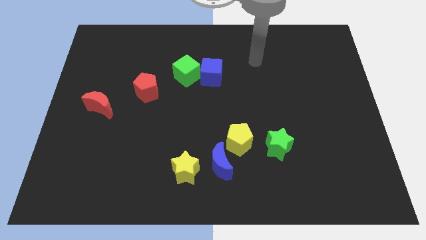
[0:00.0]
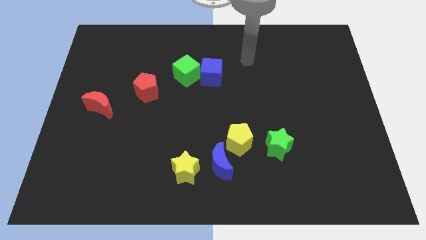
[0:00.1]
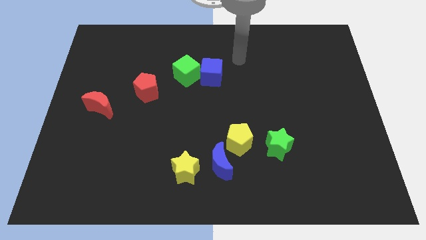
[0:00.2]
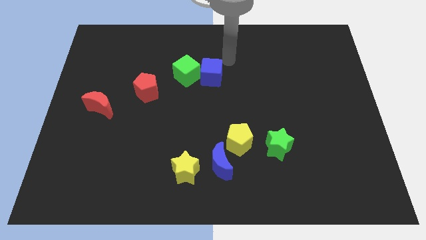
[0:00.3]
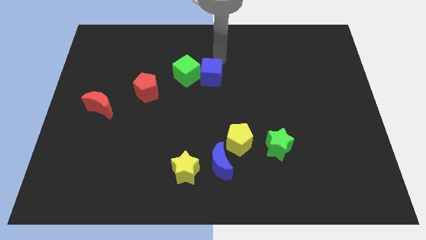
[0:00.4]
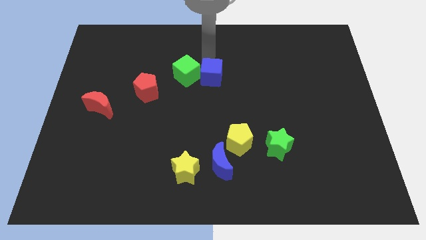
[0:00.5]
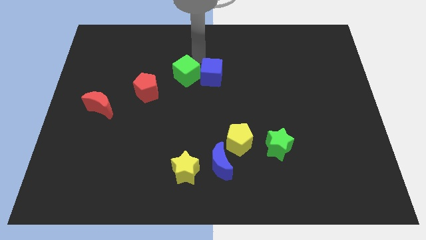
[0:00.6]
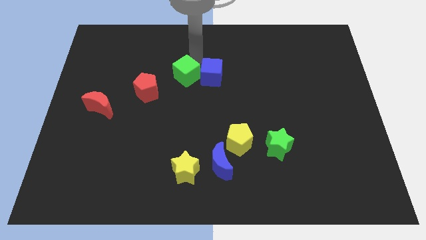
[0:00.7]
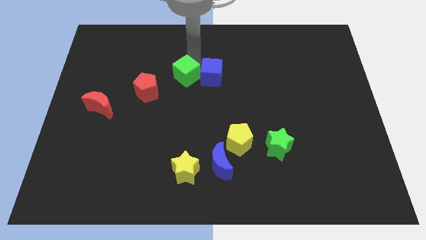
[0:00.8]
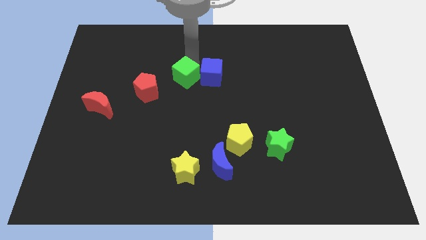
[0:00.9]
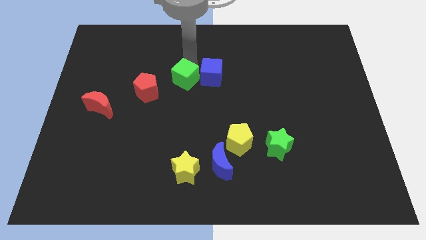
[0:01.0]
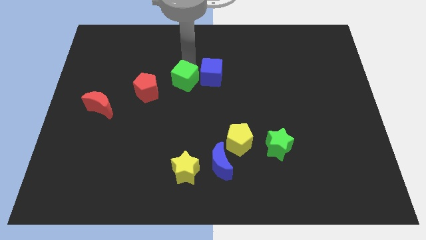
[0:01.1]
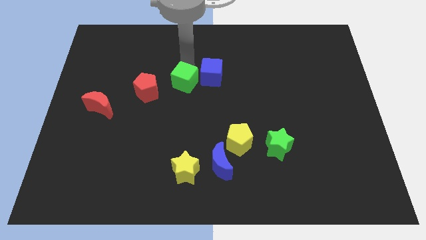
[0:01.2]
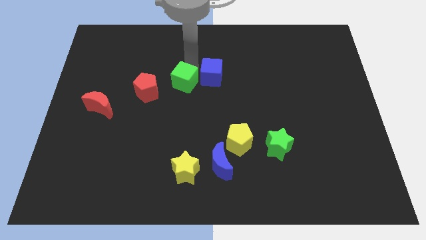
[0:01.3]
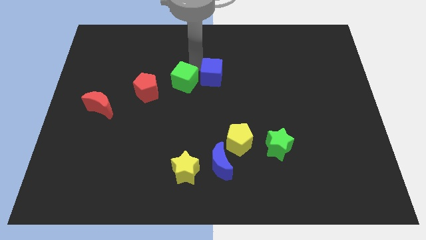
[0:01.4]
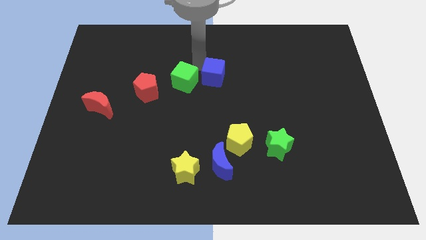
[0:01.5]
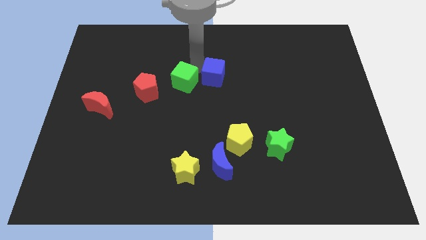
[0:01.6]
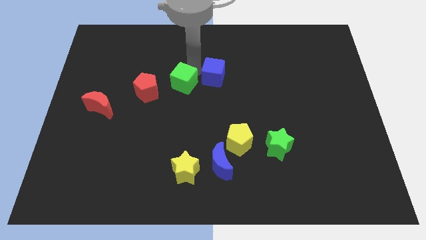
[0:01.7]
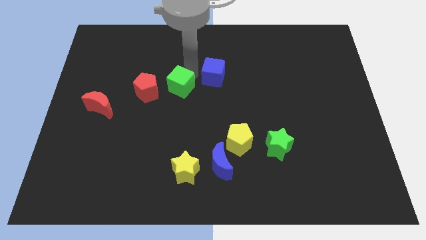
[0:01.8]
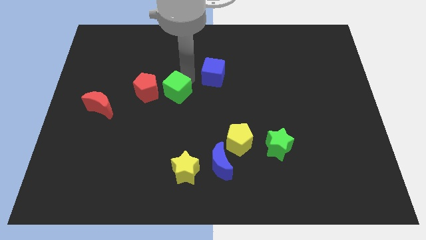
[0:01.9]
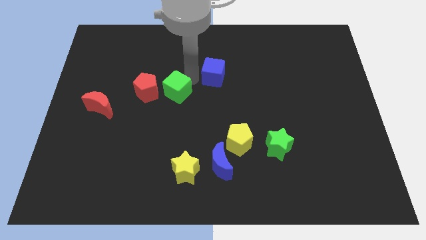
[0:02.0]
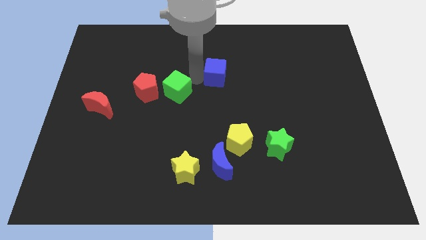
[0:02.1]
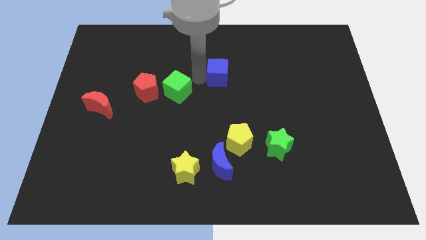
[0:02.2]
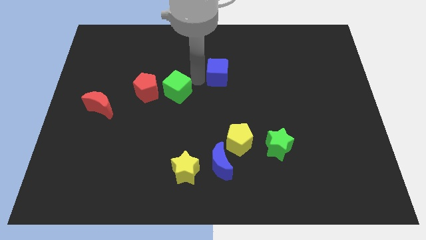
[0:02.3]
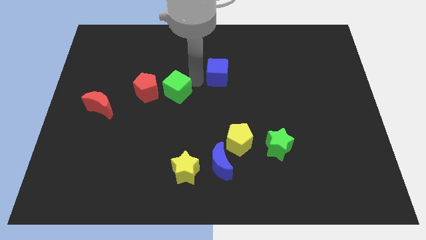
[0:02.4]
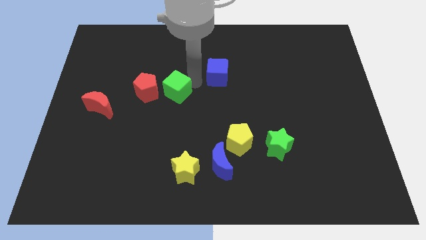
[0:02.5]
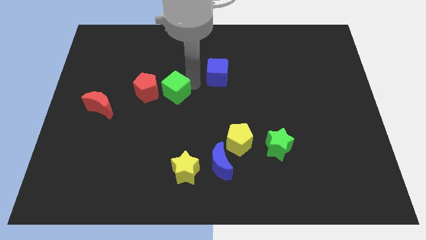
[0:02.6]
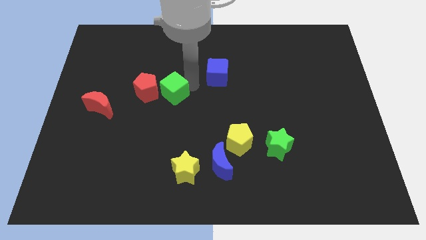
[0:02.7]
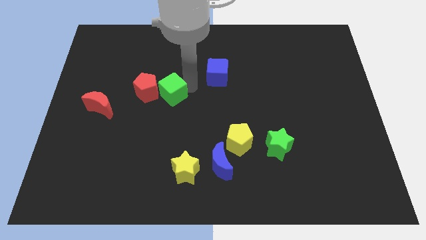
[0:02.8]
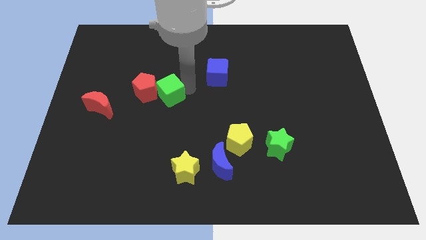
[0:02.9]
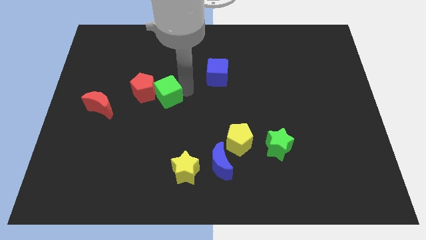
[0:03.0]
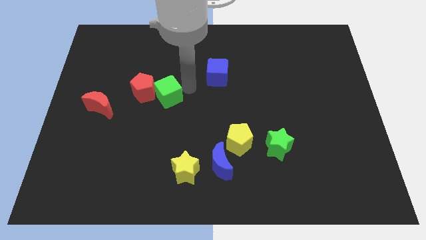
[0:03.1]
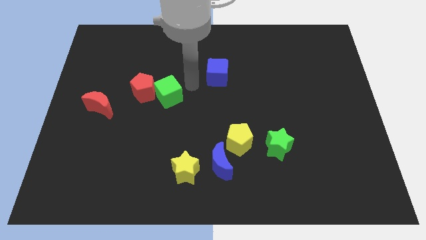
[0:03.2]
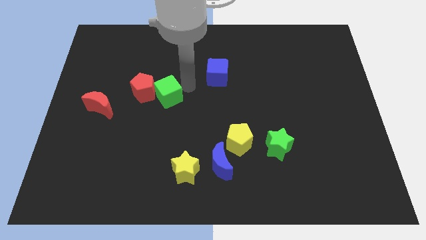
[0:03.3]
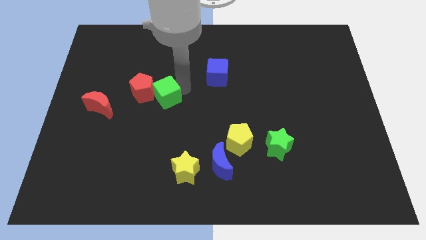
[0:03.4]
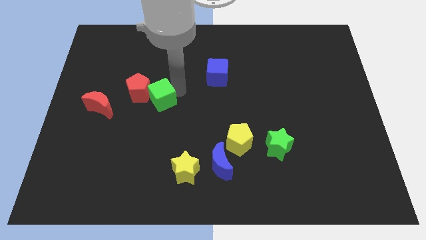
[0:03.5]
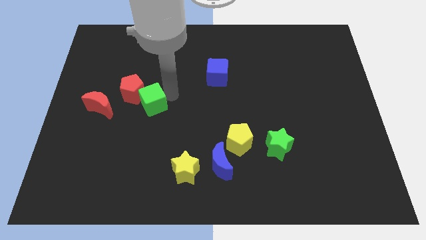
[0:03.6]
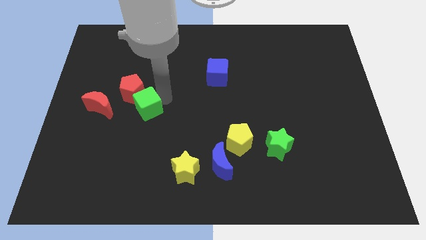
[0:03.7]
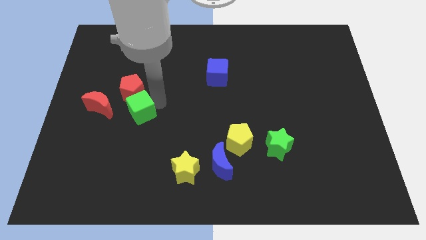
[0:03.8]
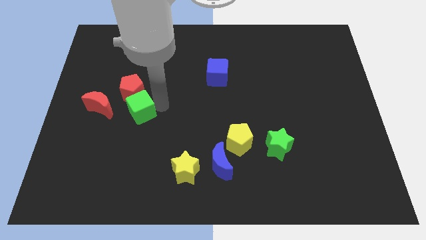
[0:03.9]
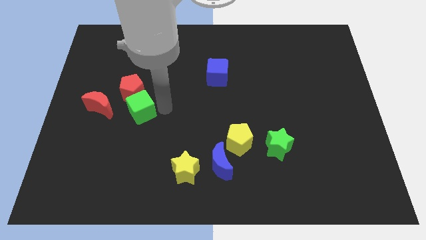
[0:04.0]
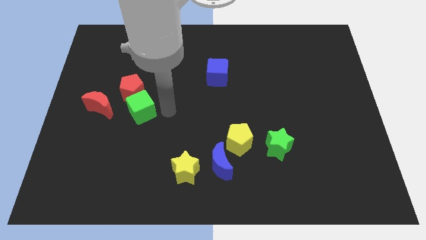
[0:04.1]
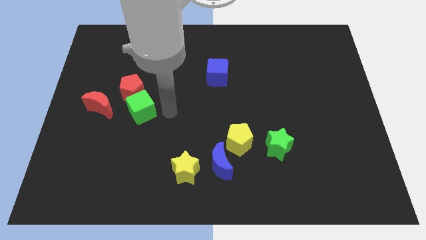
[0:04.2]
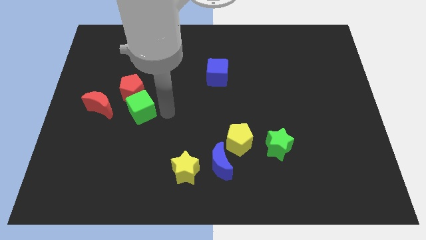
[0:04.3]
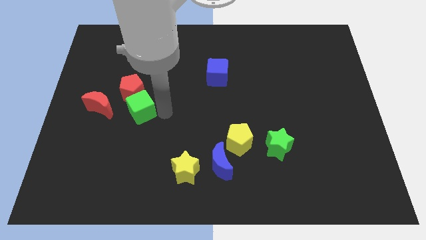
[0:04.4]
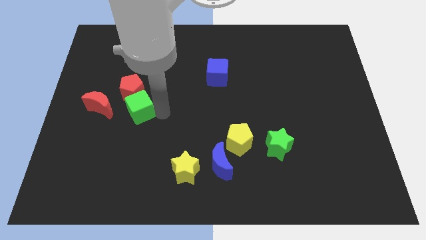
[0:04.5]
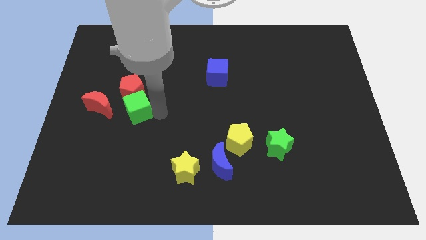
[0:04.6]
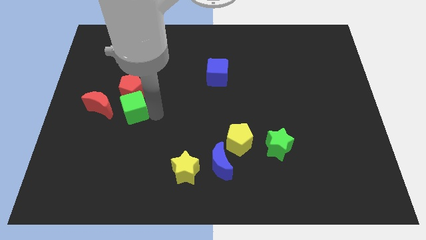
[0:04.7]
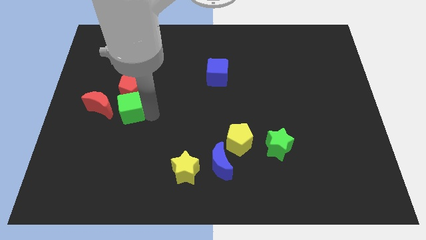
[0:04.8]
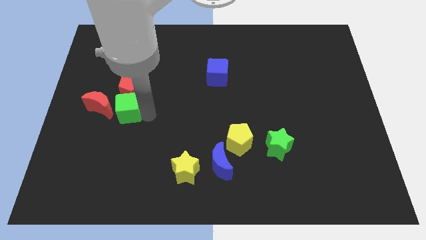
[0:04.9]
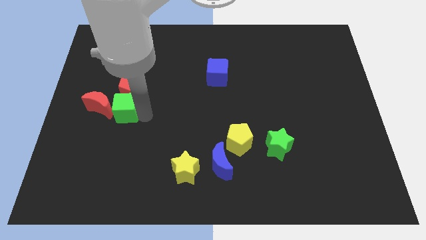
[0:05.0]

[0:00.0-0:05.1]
move the green cube to the red moon

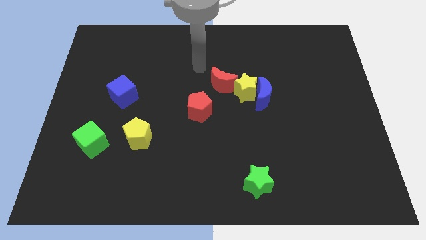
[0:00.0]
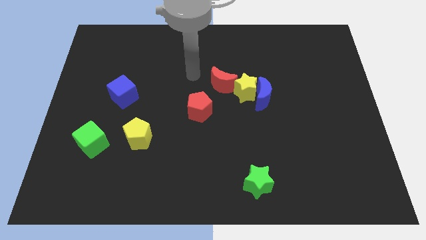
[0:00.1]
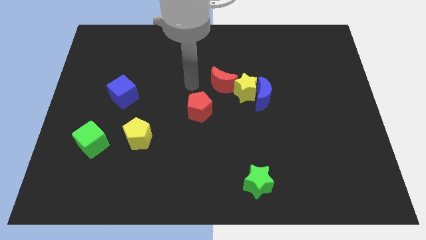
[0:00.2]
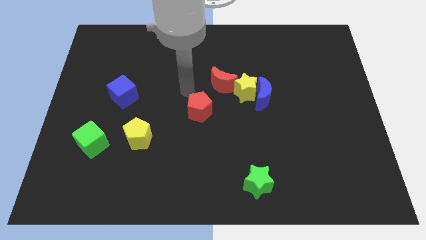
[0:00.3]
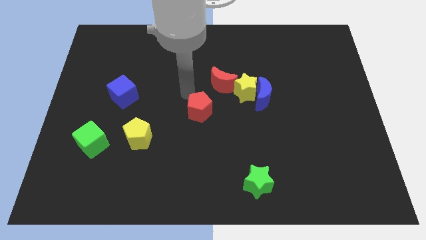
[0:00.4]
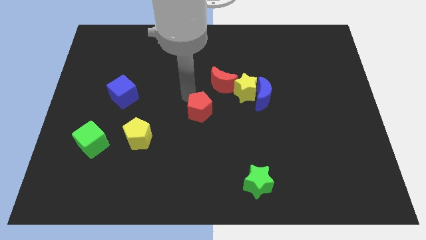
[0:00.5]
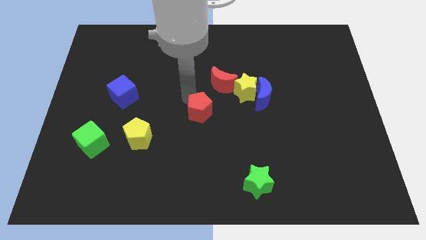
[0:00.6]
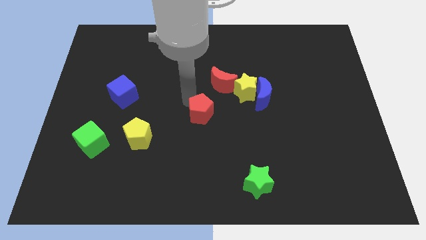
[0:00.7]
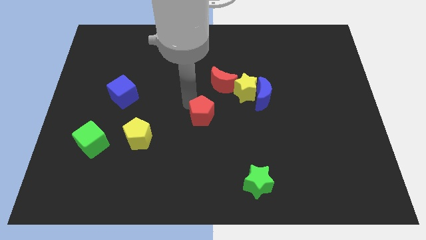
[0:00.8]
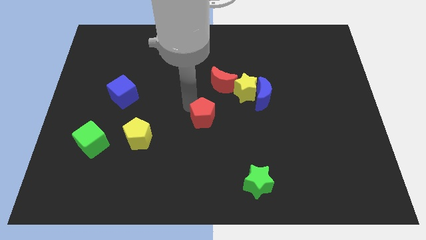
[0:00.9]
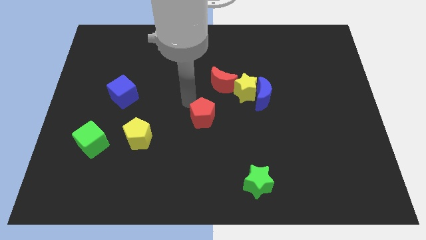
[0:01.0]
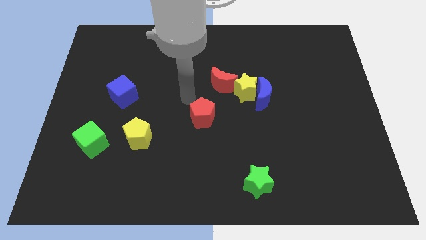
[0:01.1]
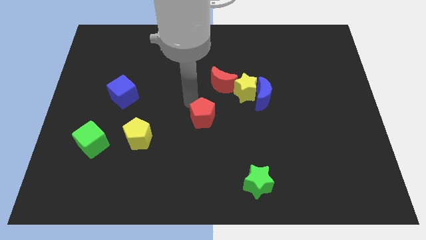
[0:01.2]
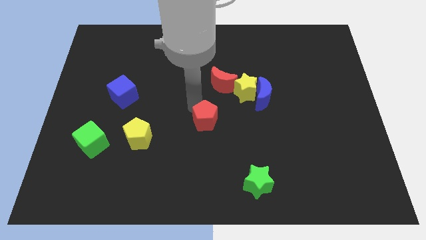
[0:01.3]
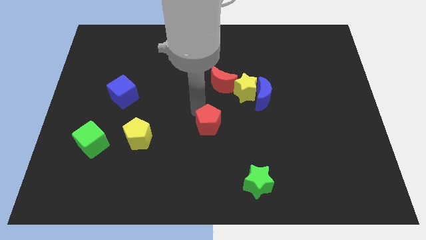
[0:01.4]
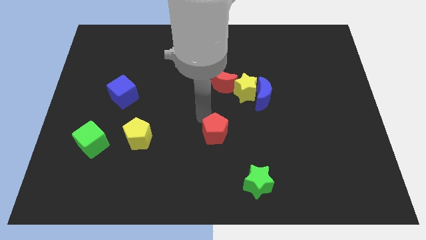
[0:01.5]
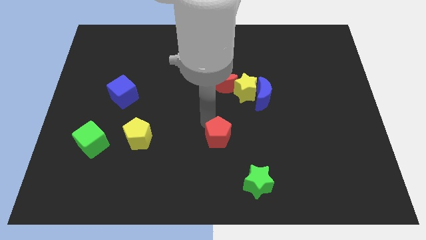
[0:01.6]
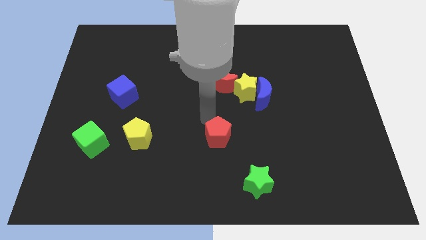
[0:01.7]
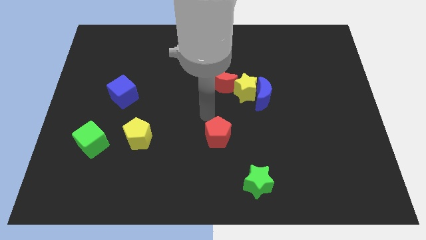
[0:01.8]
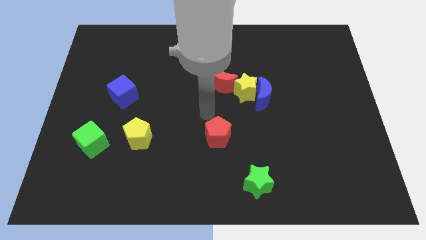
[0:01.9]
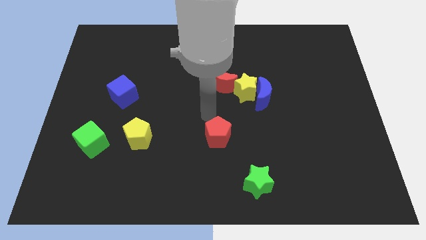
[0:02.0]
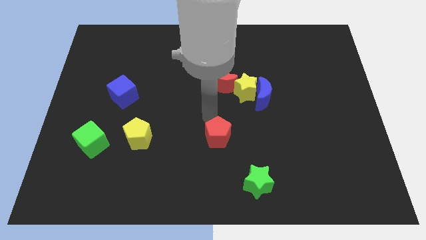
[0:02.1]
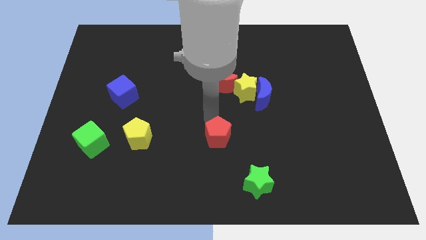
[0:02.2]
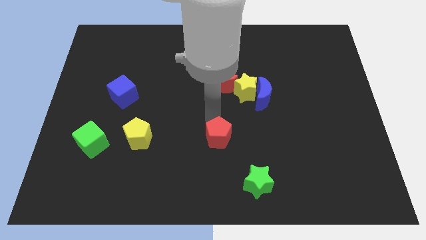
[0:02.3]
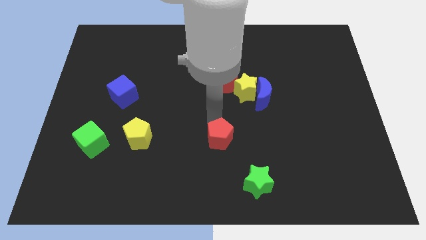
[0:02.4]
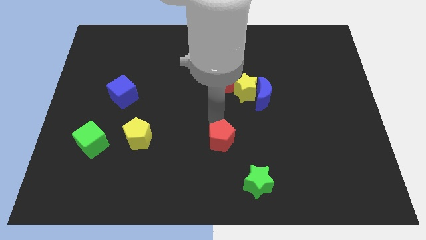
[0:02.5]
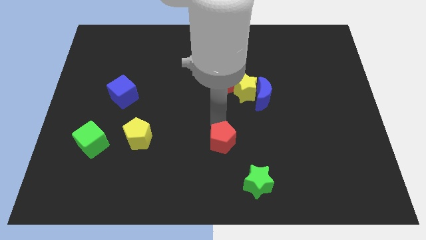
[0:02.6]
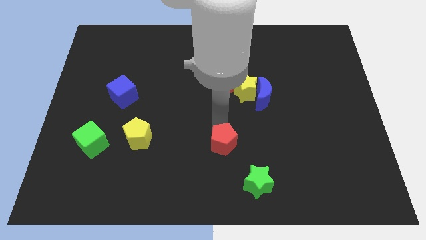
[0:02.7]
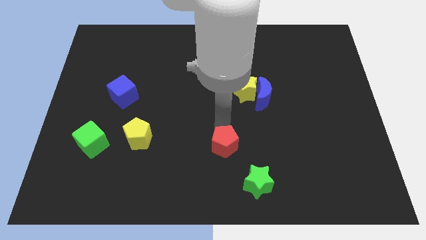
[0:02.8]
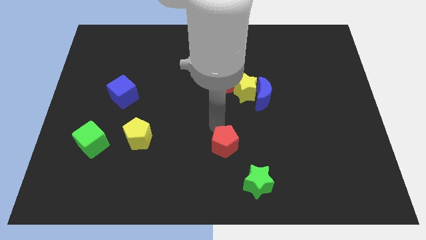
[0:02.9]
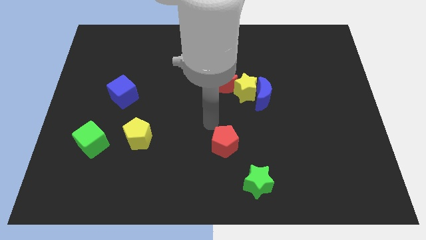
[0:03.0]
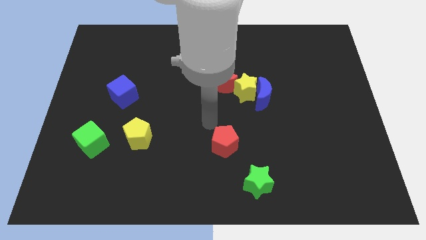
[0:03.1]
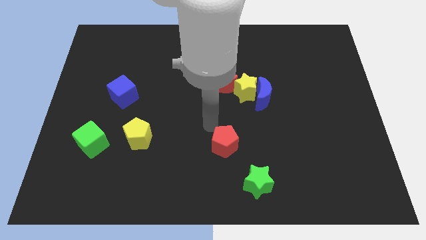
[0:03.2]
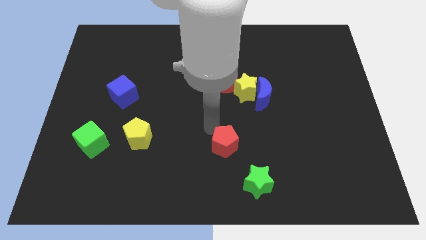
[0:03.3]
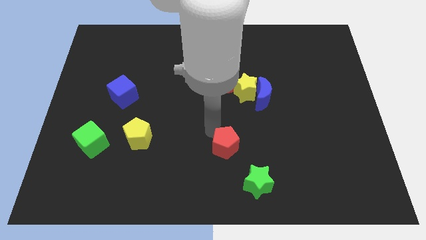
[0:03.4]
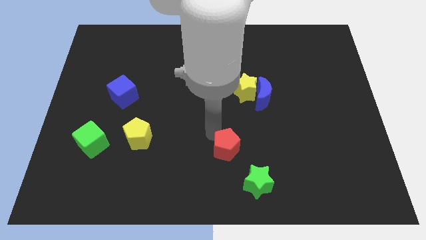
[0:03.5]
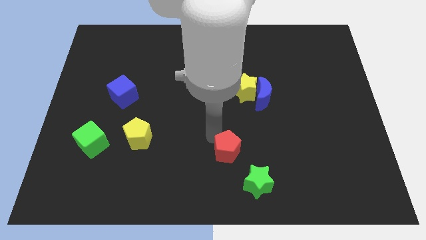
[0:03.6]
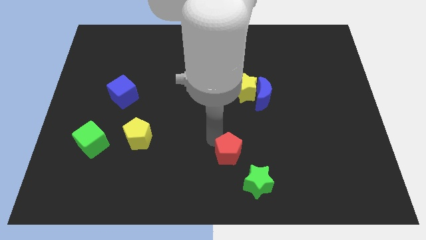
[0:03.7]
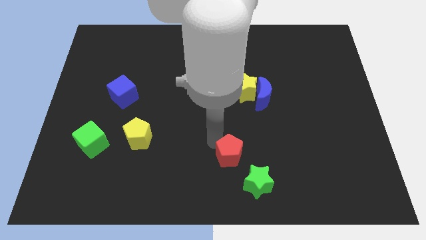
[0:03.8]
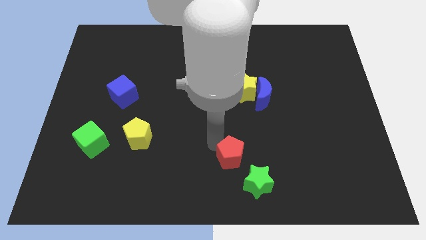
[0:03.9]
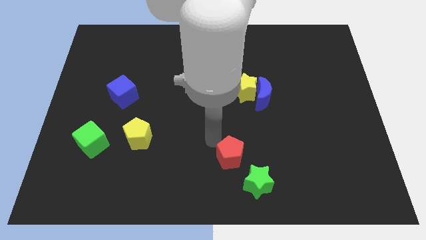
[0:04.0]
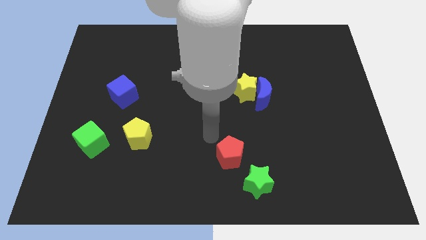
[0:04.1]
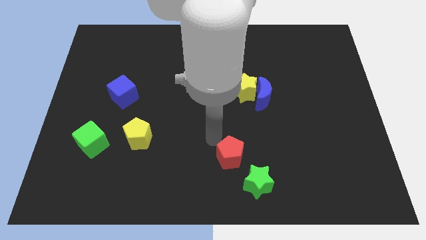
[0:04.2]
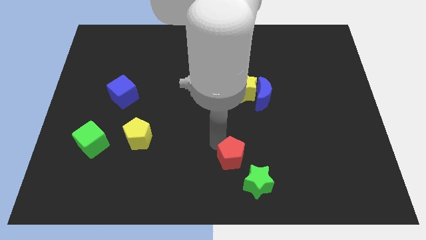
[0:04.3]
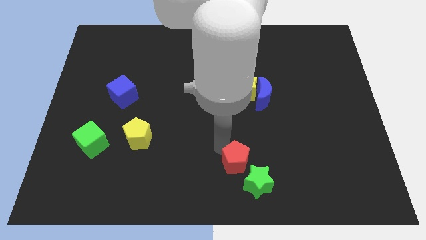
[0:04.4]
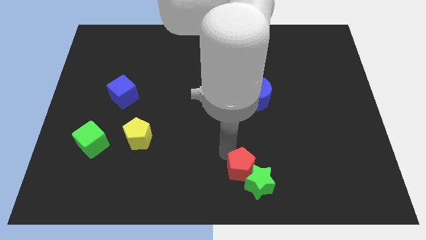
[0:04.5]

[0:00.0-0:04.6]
slide the red pentagon to the green star
